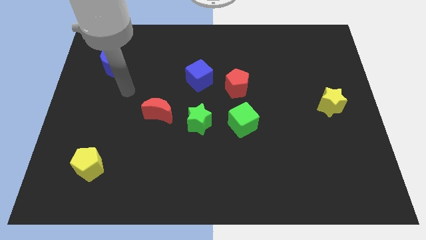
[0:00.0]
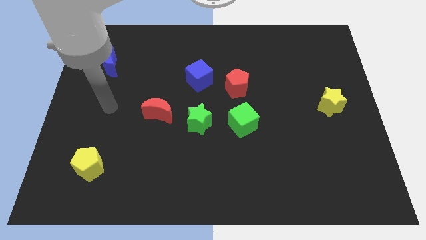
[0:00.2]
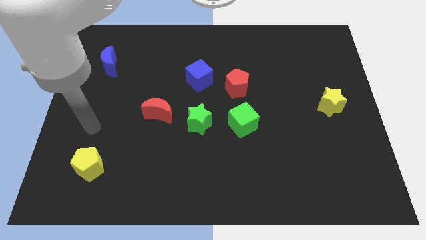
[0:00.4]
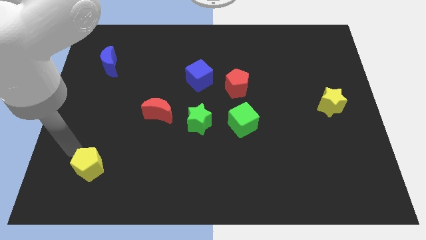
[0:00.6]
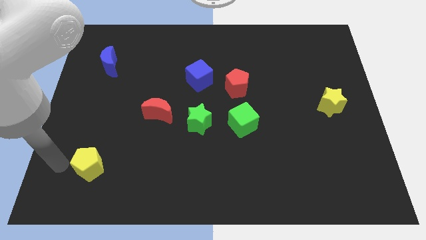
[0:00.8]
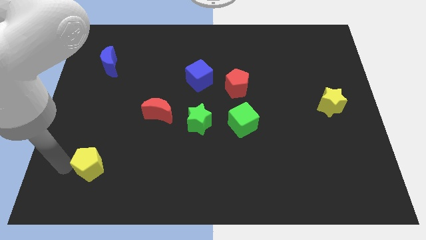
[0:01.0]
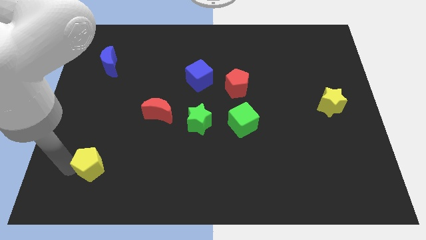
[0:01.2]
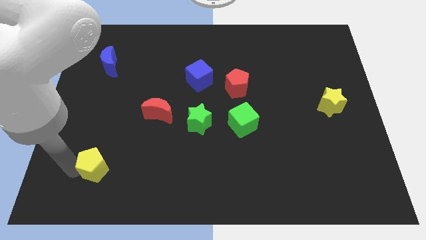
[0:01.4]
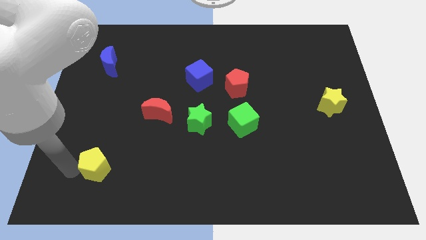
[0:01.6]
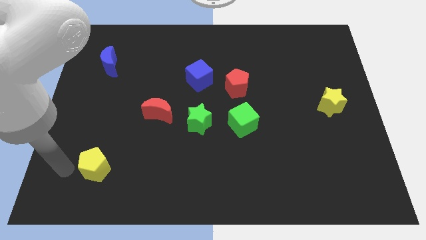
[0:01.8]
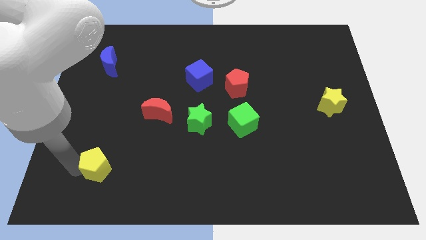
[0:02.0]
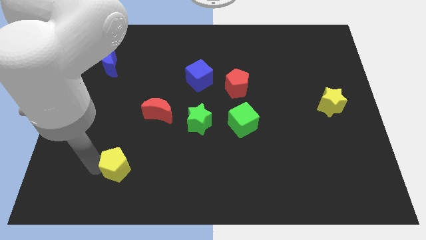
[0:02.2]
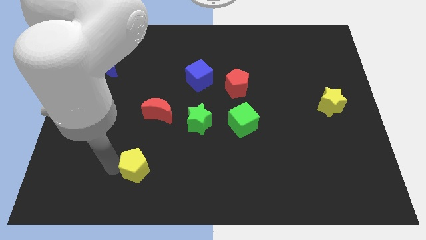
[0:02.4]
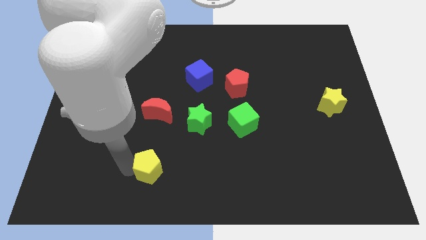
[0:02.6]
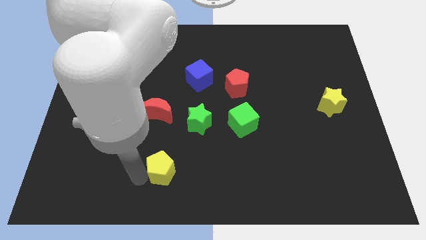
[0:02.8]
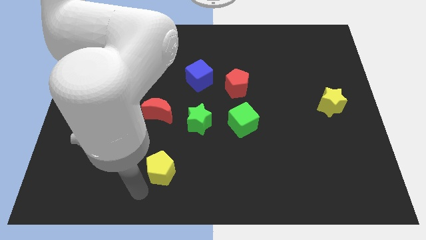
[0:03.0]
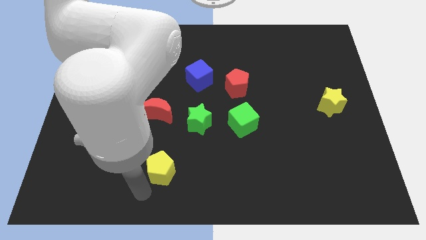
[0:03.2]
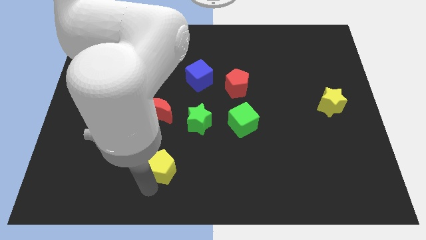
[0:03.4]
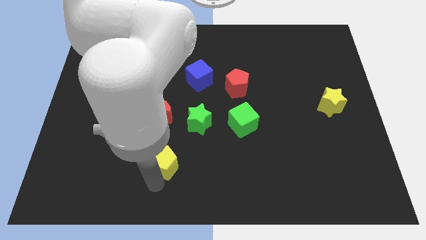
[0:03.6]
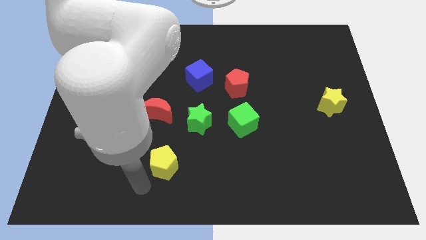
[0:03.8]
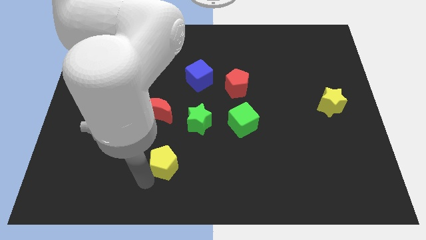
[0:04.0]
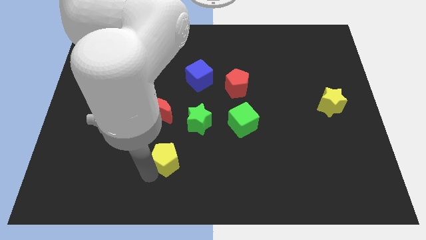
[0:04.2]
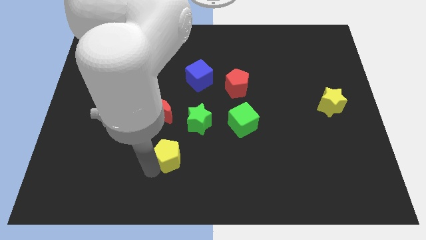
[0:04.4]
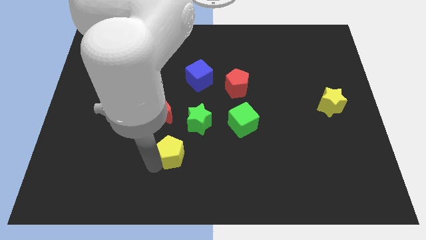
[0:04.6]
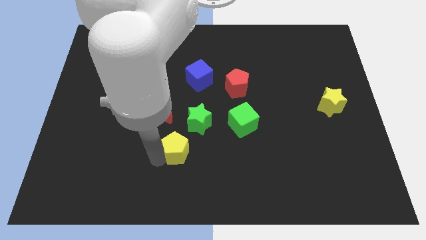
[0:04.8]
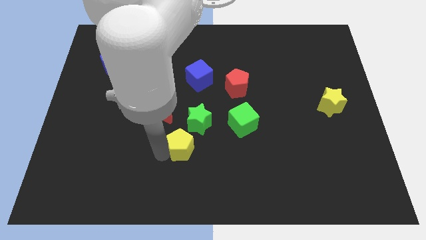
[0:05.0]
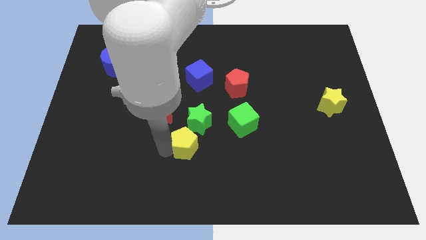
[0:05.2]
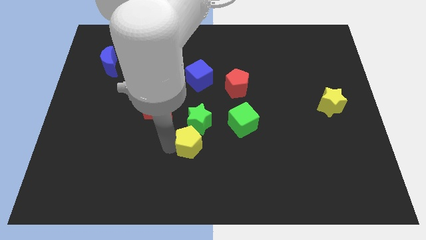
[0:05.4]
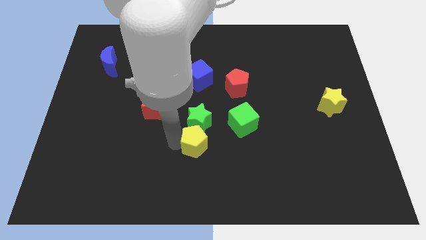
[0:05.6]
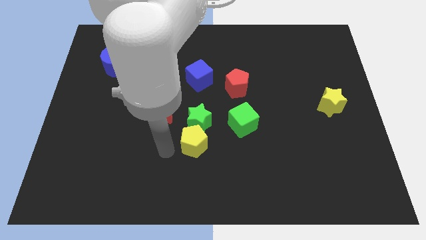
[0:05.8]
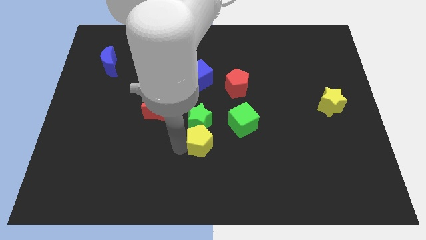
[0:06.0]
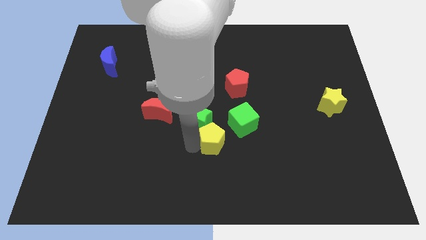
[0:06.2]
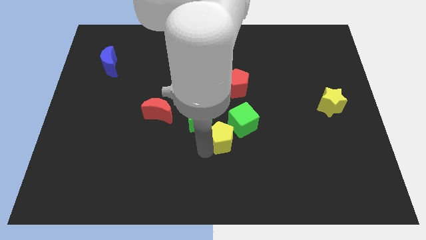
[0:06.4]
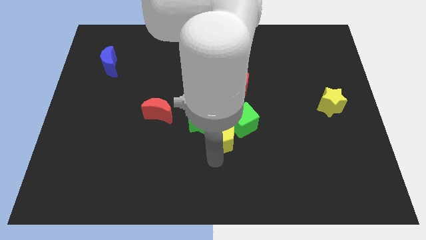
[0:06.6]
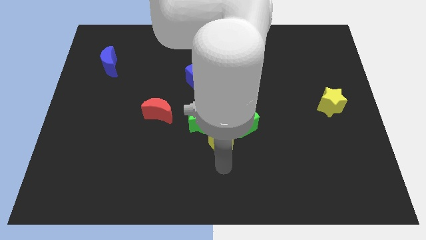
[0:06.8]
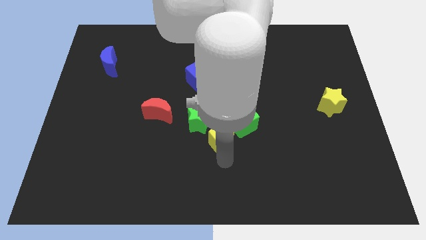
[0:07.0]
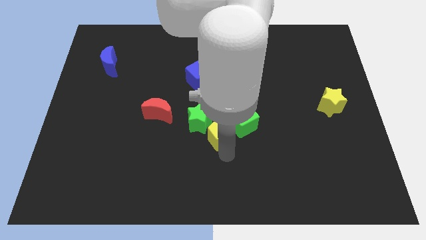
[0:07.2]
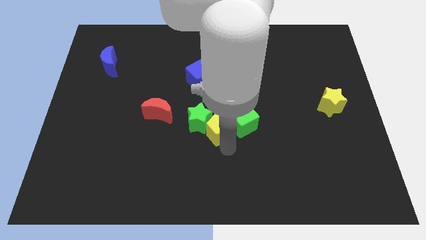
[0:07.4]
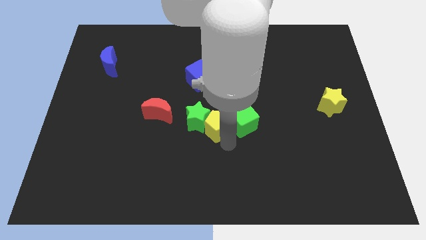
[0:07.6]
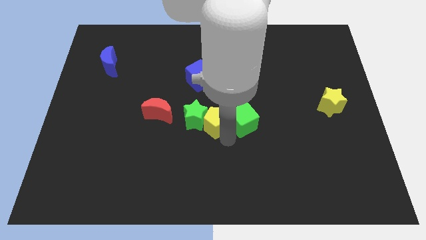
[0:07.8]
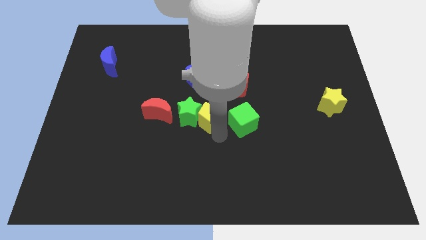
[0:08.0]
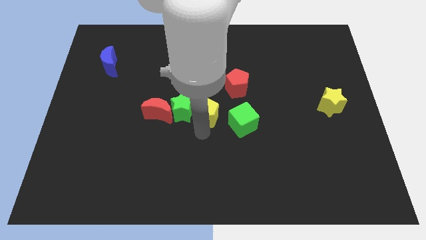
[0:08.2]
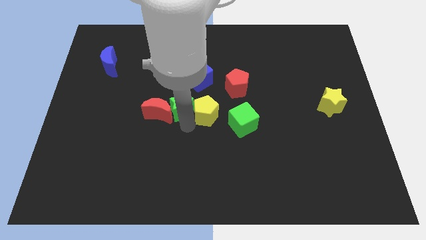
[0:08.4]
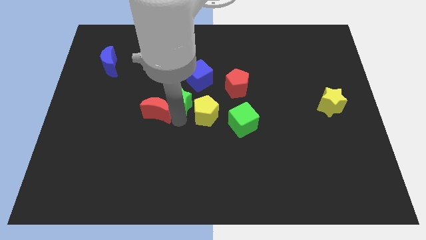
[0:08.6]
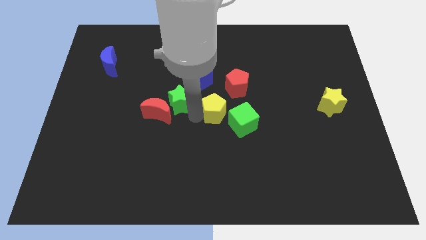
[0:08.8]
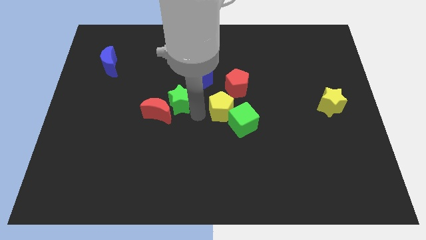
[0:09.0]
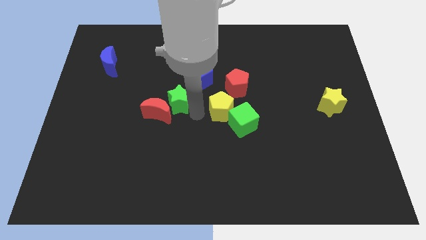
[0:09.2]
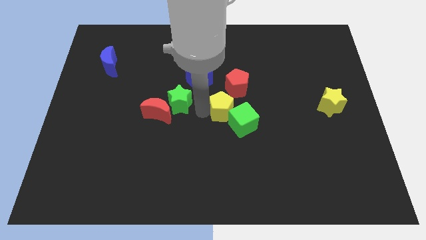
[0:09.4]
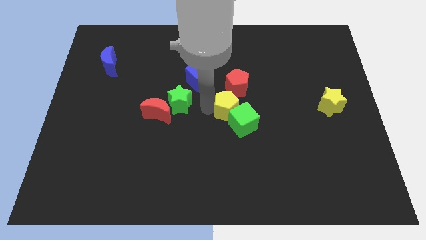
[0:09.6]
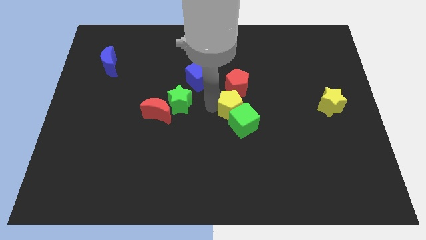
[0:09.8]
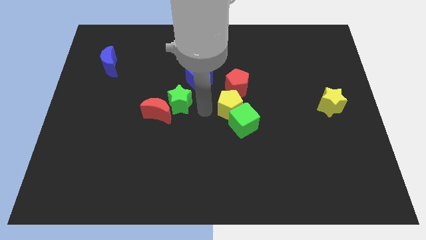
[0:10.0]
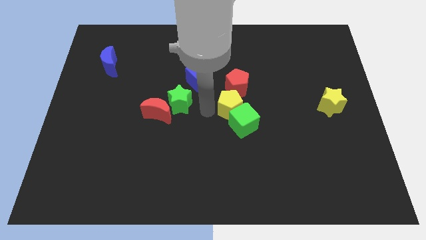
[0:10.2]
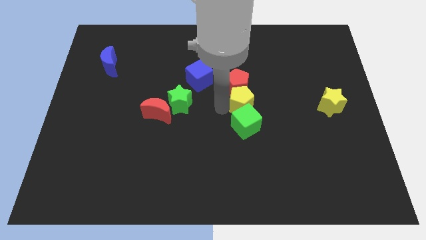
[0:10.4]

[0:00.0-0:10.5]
move the yellow pentagon to the top right side of the green cube

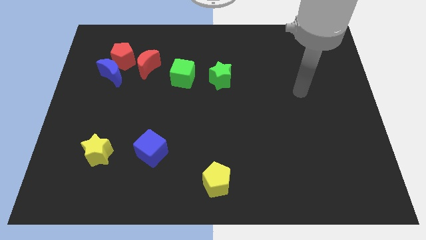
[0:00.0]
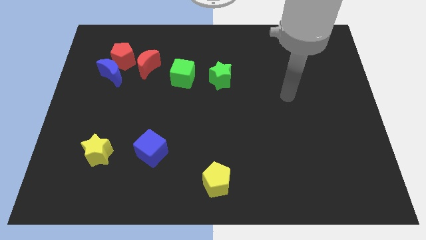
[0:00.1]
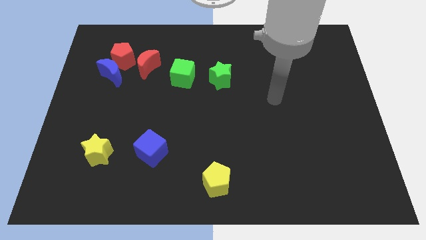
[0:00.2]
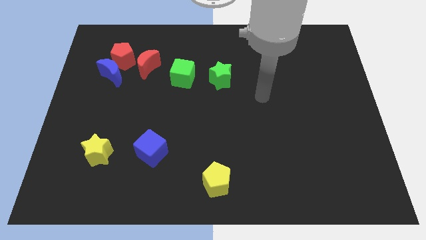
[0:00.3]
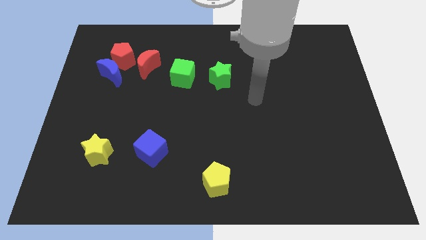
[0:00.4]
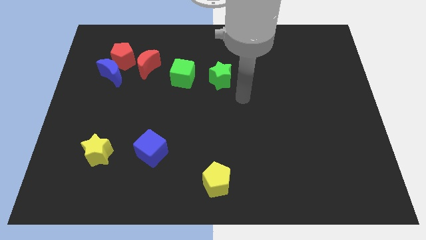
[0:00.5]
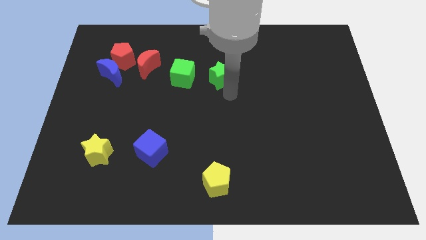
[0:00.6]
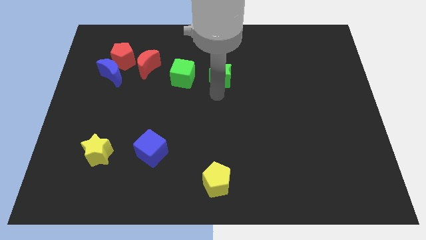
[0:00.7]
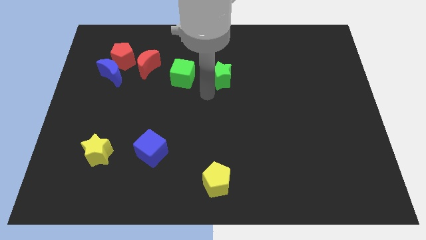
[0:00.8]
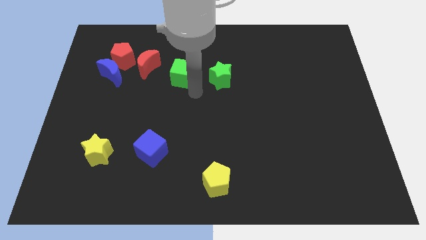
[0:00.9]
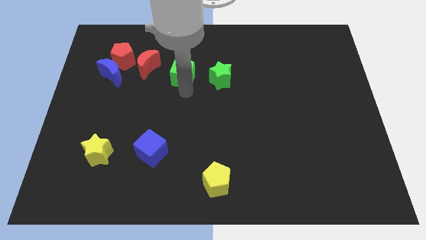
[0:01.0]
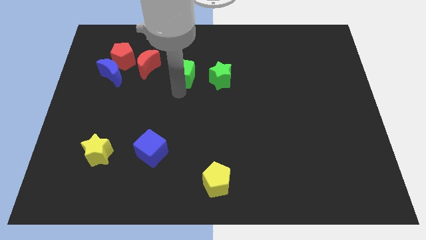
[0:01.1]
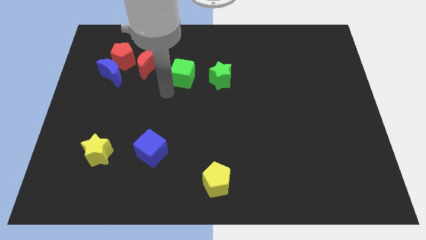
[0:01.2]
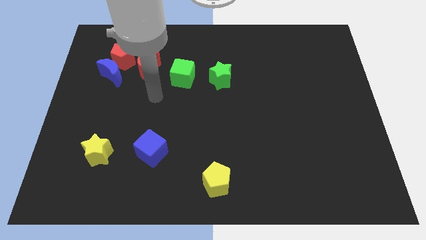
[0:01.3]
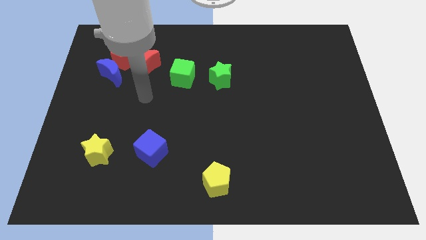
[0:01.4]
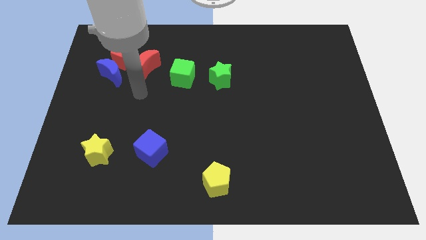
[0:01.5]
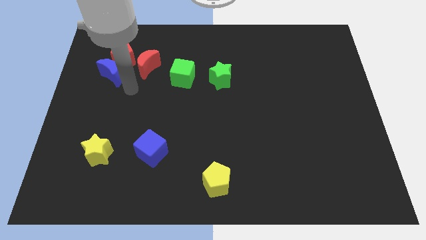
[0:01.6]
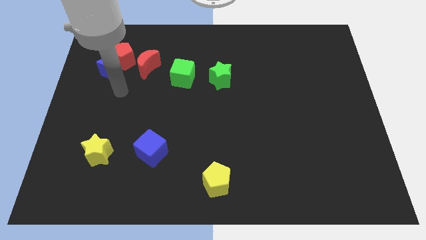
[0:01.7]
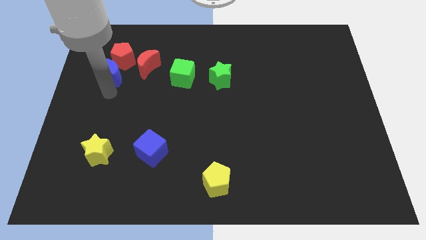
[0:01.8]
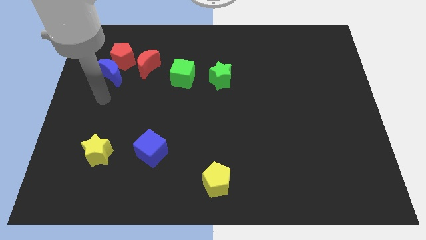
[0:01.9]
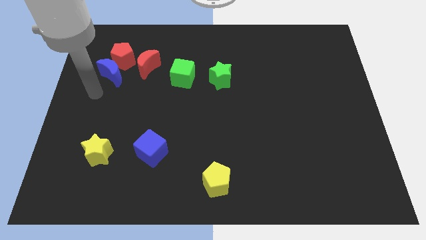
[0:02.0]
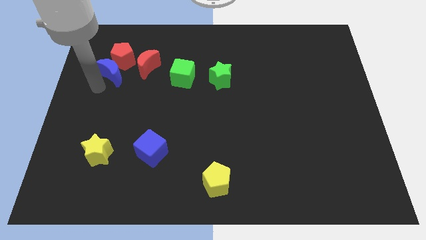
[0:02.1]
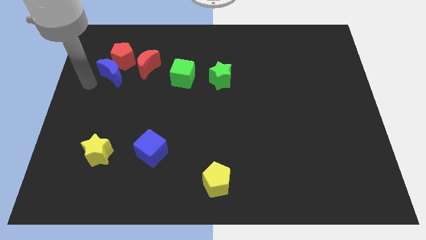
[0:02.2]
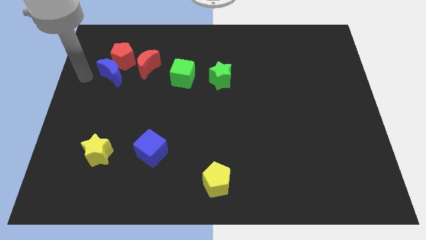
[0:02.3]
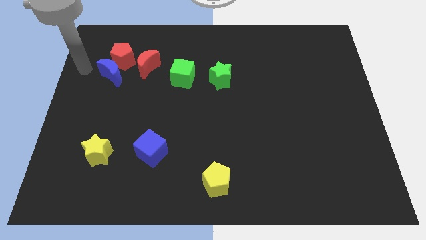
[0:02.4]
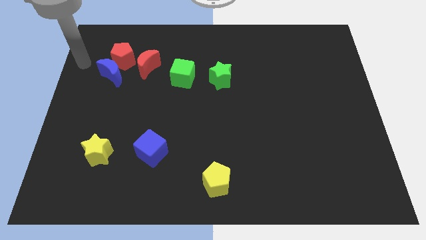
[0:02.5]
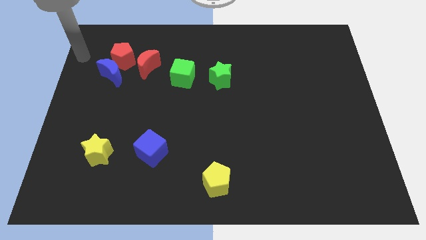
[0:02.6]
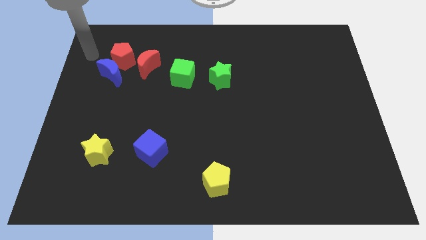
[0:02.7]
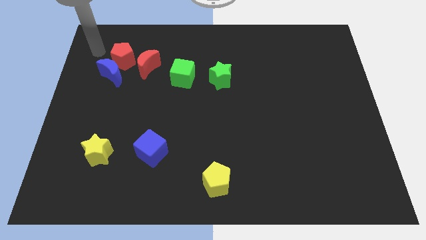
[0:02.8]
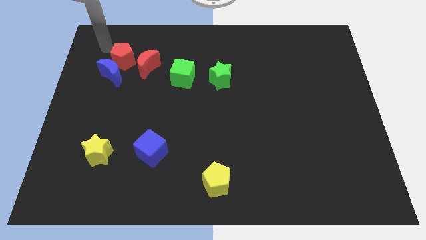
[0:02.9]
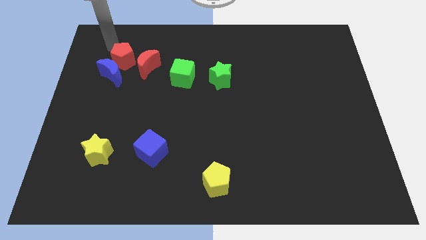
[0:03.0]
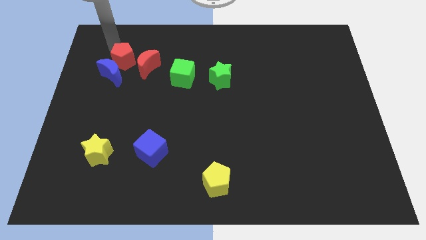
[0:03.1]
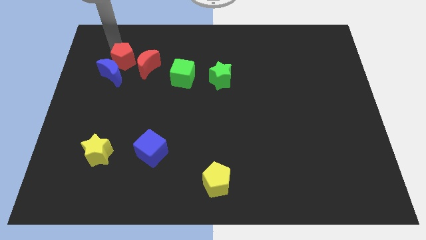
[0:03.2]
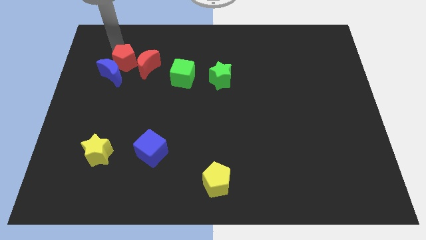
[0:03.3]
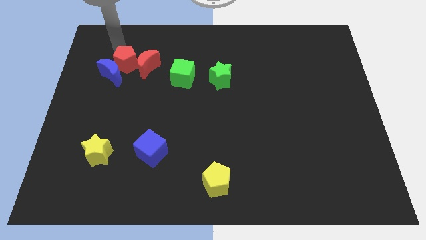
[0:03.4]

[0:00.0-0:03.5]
push the red pentagon to the right side of the blue moon
